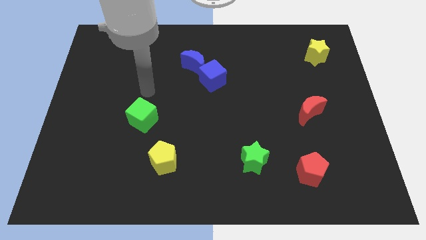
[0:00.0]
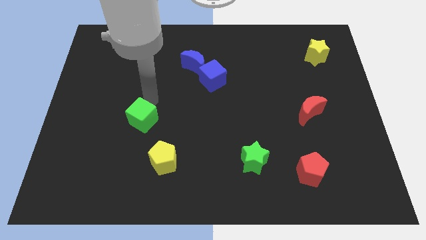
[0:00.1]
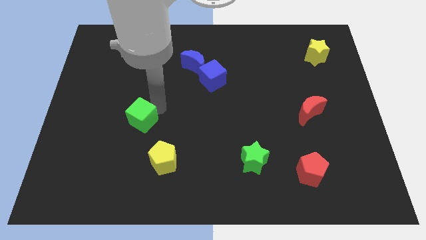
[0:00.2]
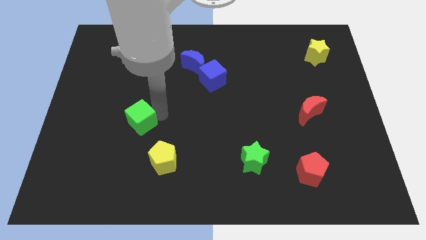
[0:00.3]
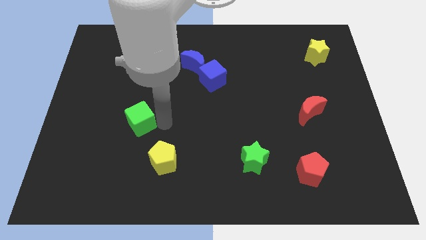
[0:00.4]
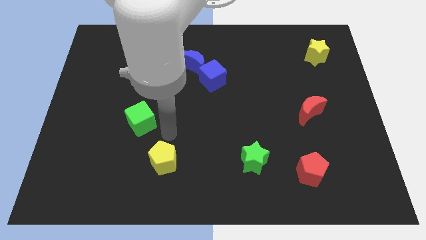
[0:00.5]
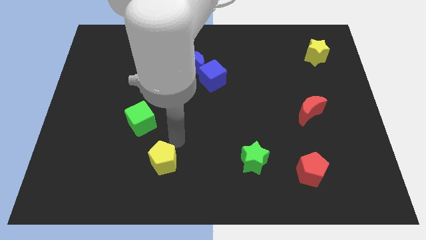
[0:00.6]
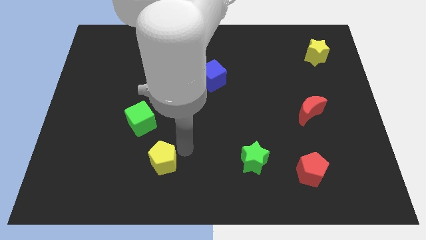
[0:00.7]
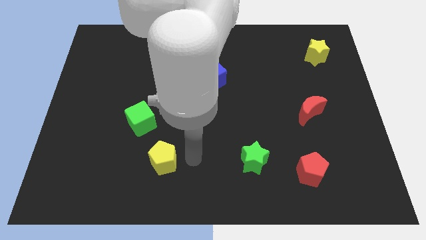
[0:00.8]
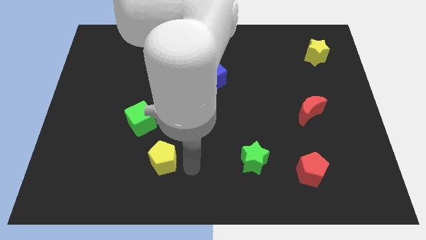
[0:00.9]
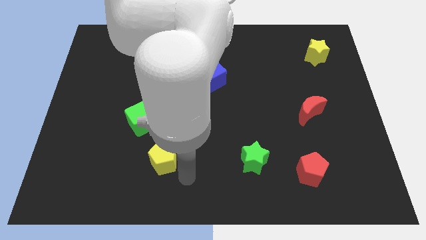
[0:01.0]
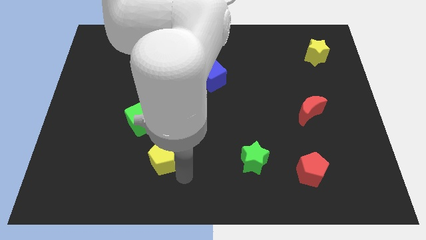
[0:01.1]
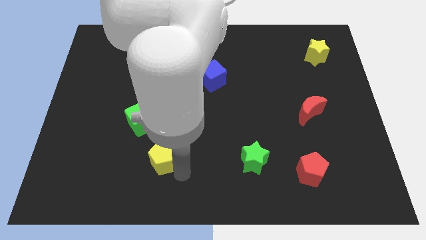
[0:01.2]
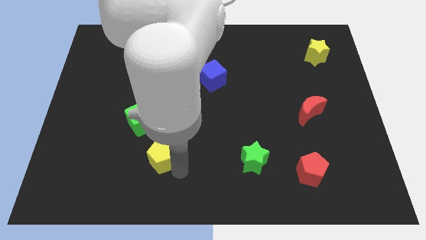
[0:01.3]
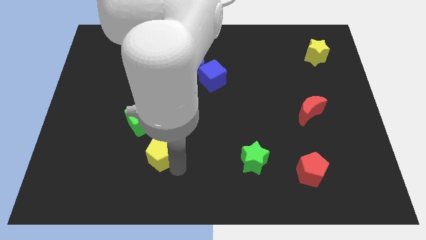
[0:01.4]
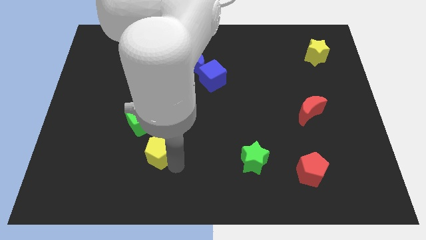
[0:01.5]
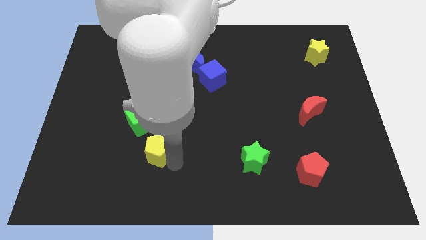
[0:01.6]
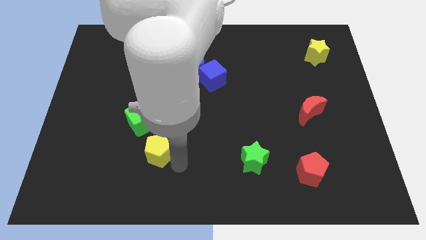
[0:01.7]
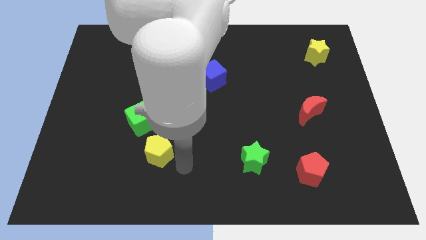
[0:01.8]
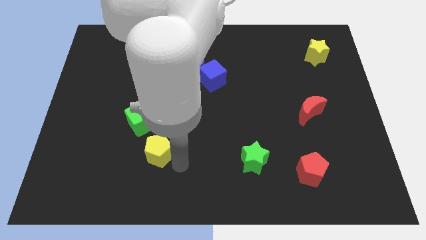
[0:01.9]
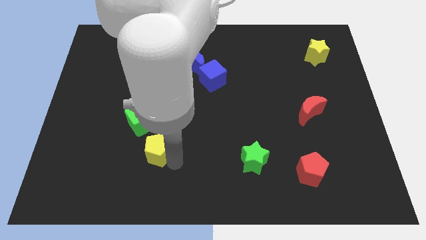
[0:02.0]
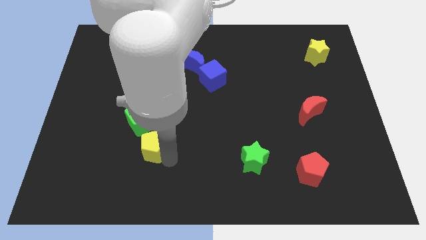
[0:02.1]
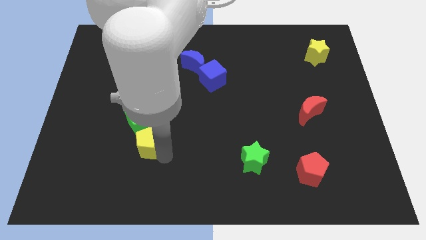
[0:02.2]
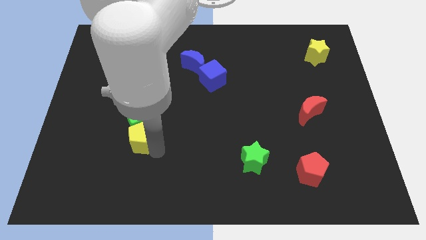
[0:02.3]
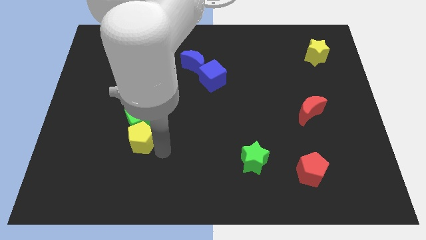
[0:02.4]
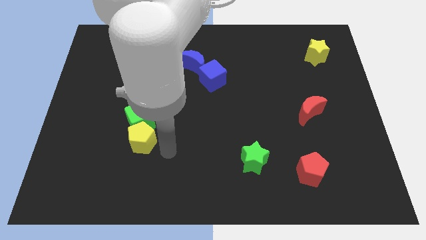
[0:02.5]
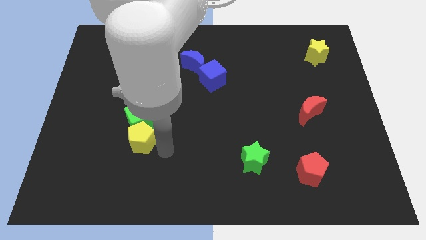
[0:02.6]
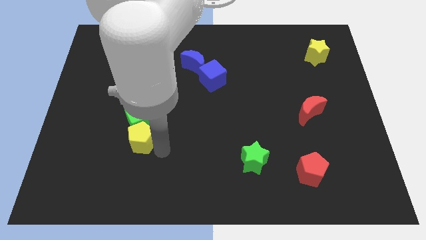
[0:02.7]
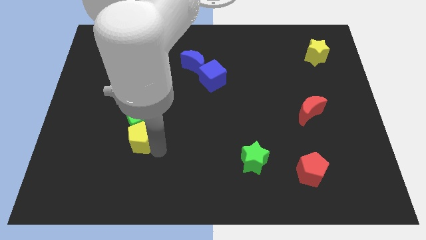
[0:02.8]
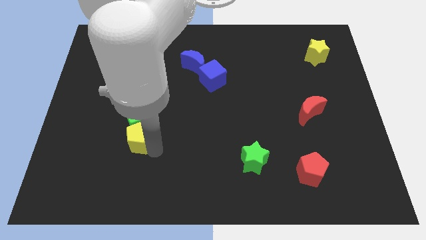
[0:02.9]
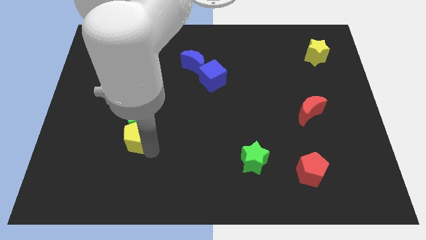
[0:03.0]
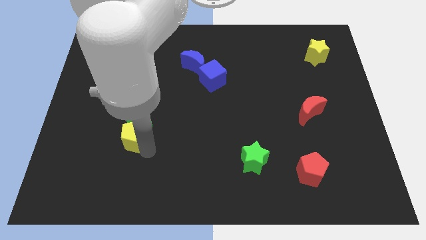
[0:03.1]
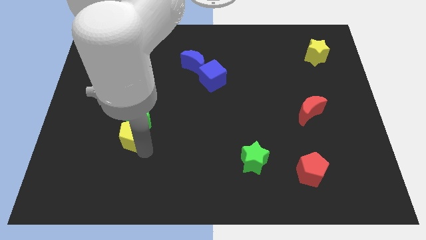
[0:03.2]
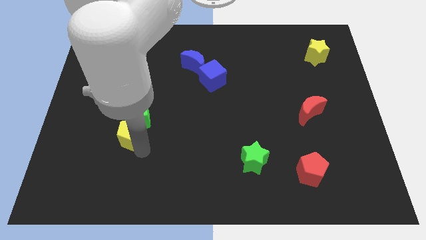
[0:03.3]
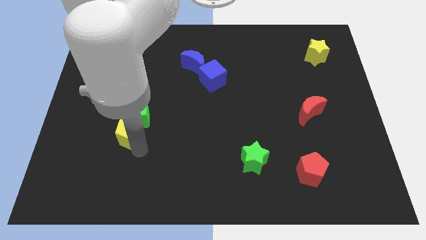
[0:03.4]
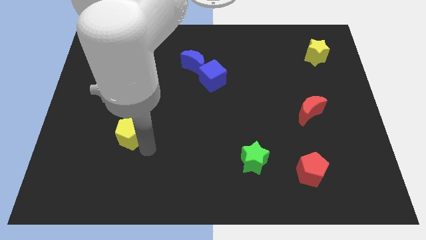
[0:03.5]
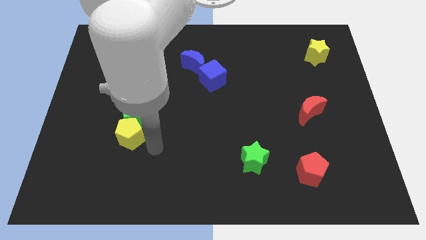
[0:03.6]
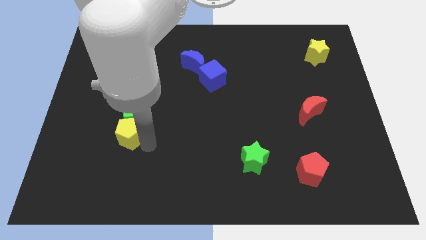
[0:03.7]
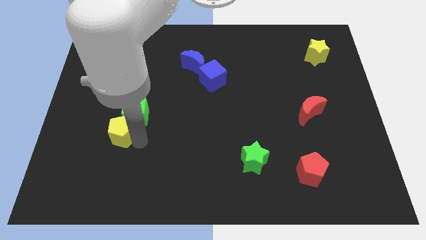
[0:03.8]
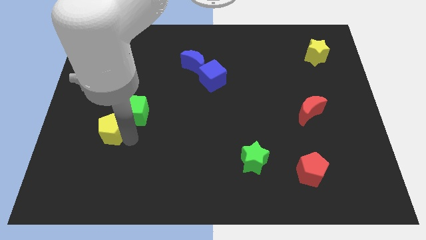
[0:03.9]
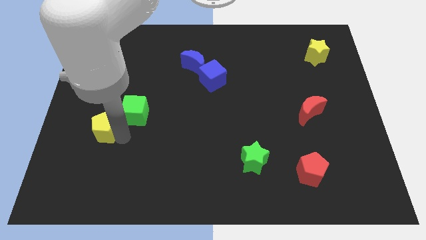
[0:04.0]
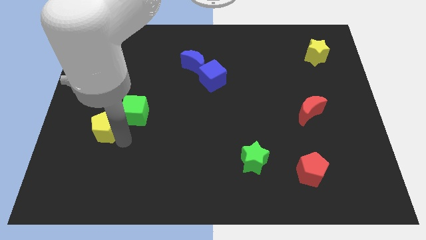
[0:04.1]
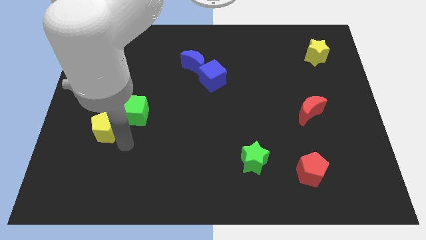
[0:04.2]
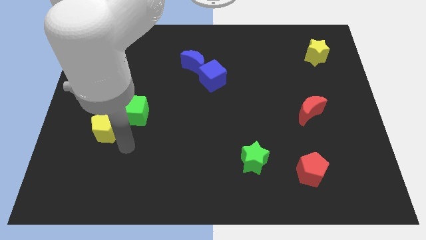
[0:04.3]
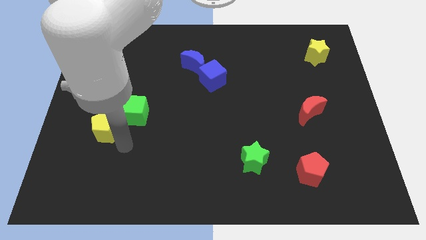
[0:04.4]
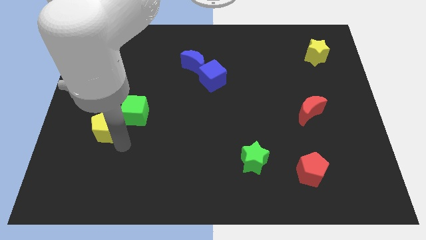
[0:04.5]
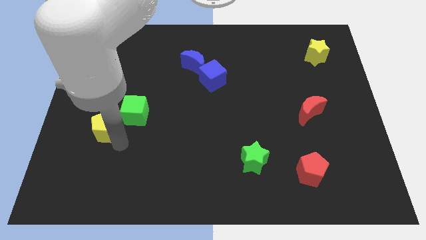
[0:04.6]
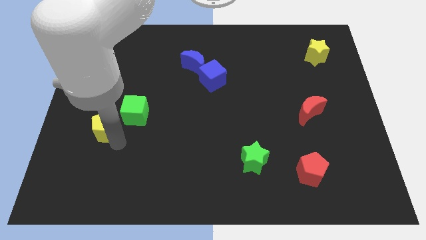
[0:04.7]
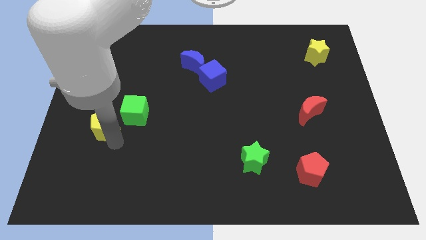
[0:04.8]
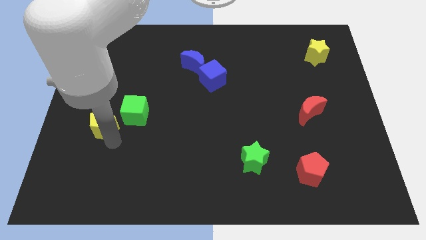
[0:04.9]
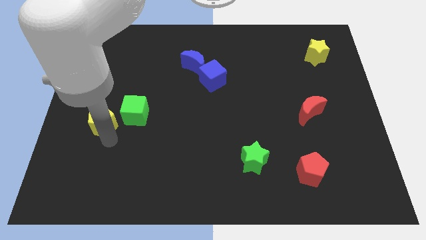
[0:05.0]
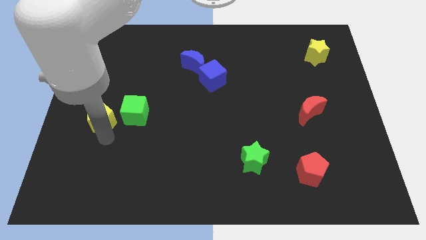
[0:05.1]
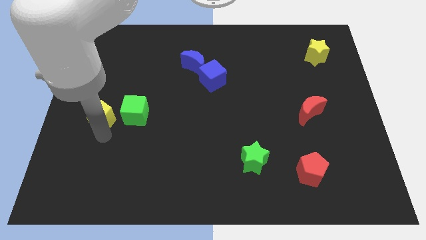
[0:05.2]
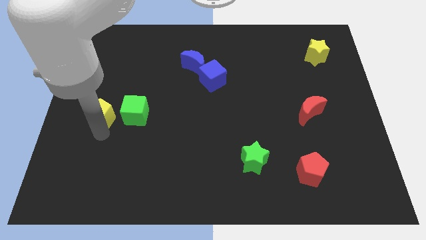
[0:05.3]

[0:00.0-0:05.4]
push the yellow pentagon to the left side of the board
